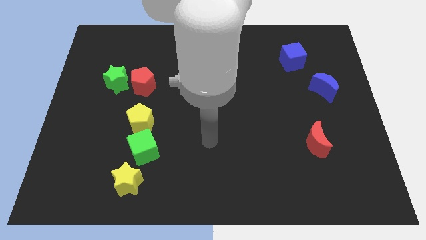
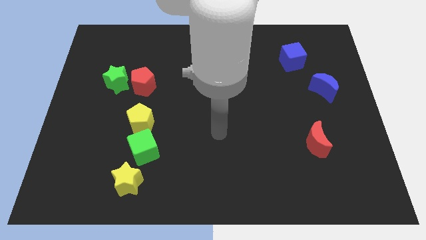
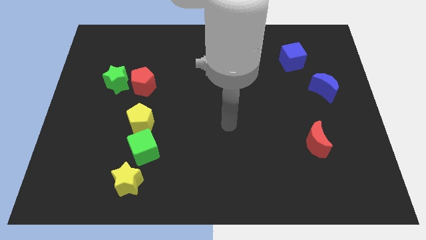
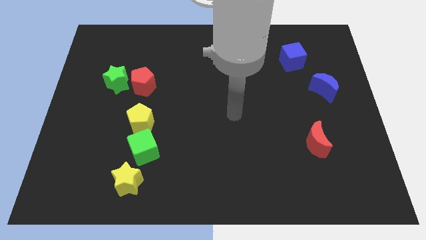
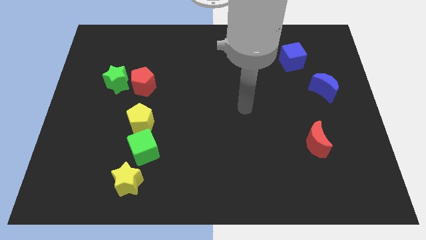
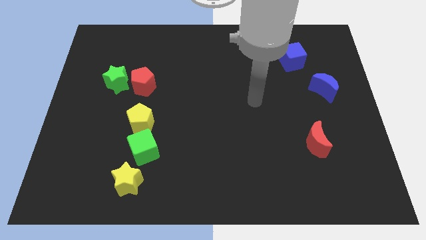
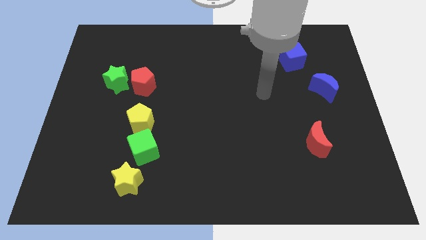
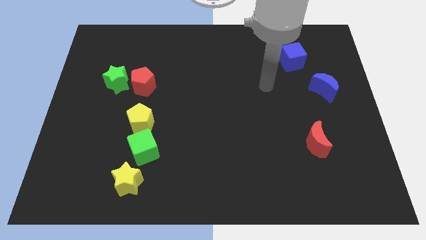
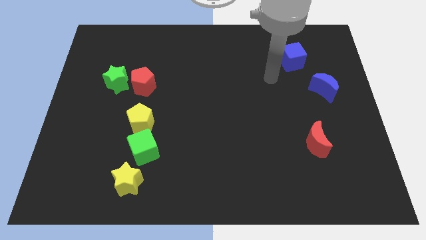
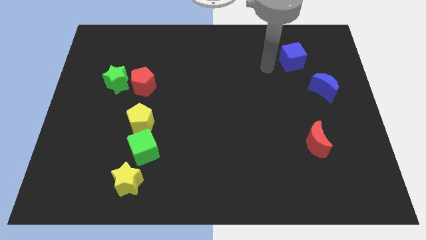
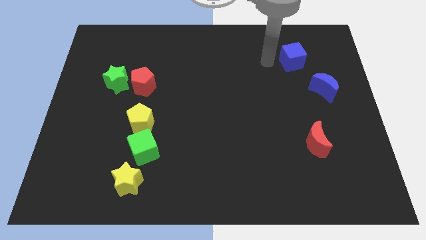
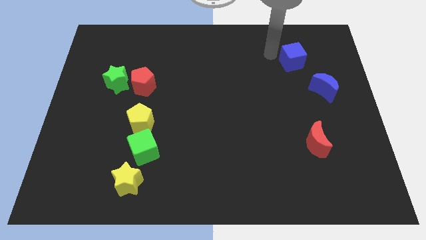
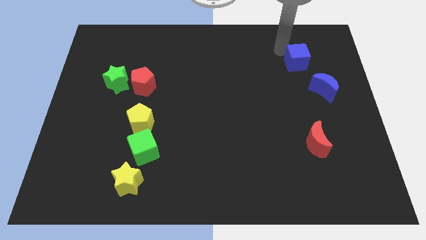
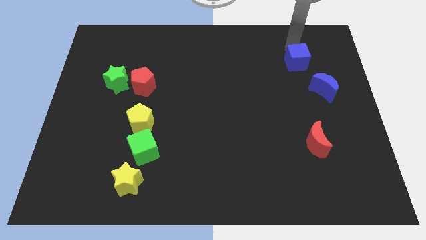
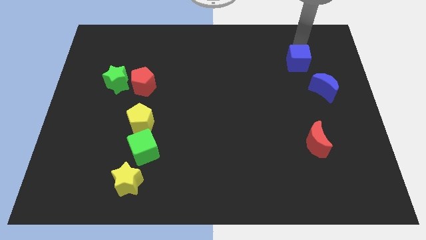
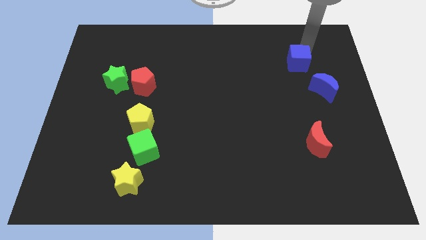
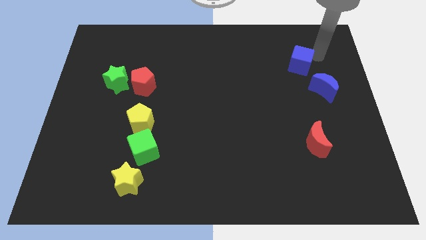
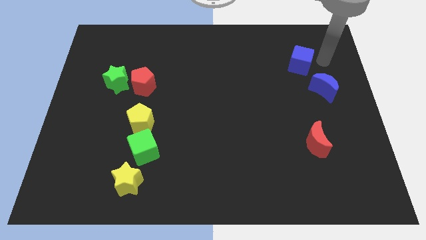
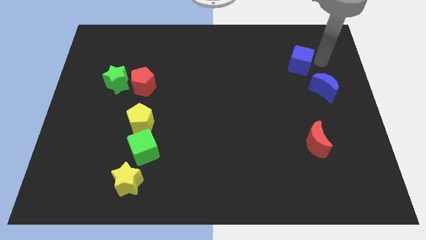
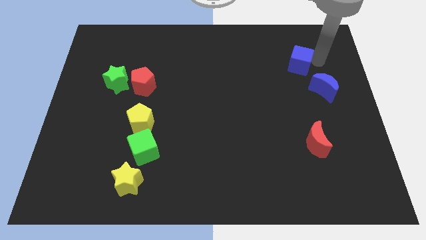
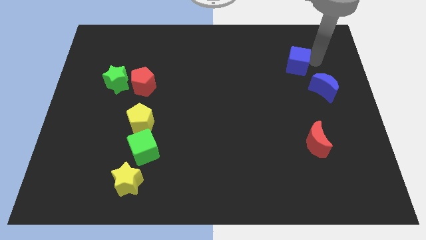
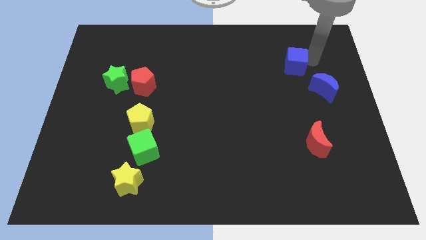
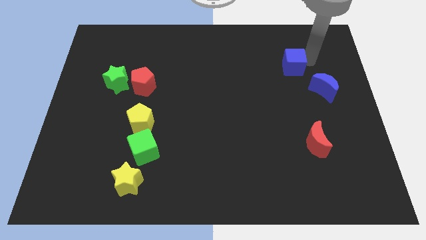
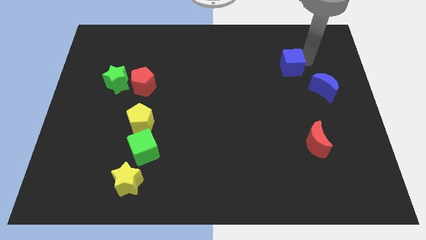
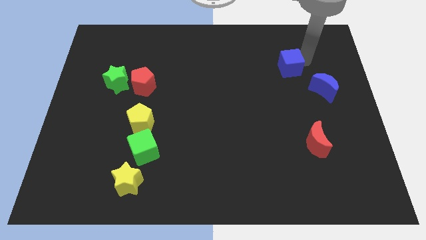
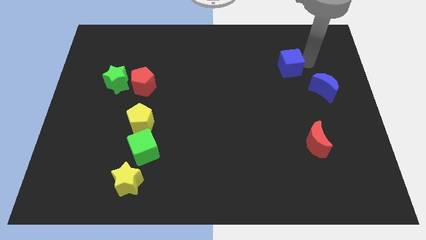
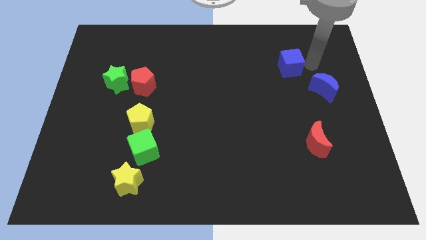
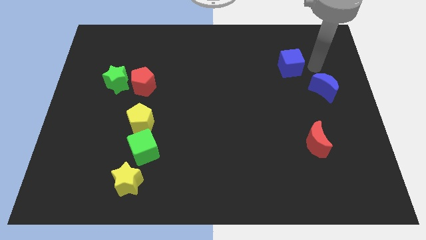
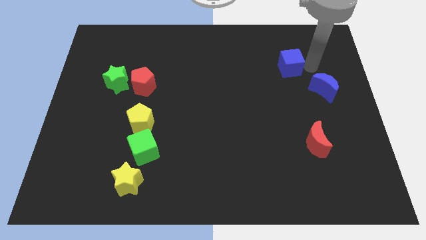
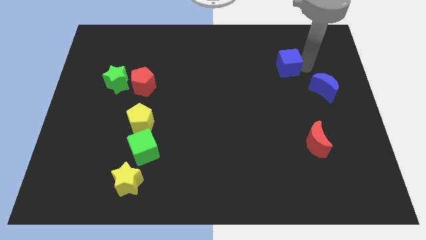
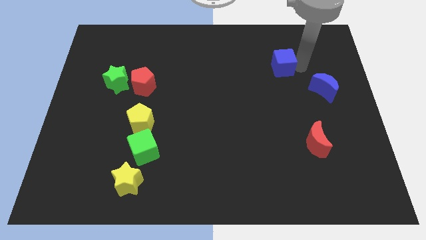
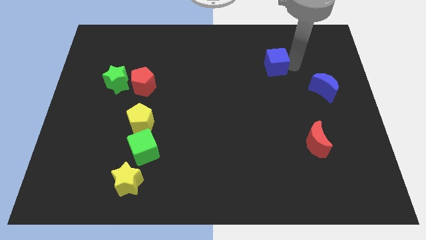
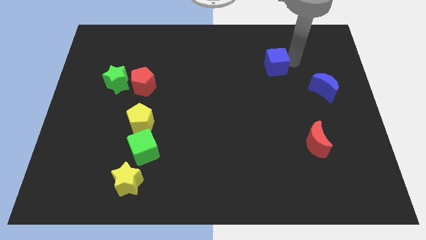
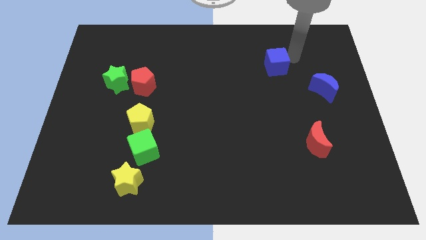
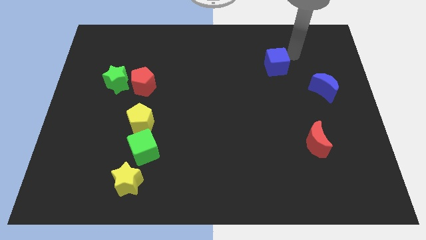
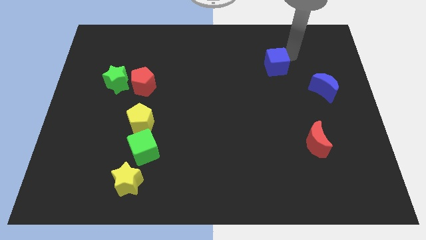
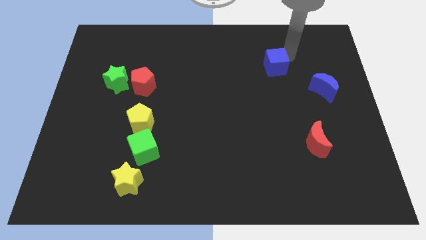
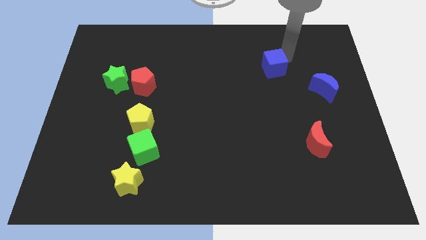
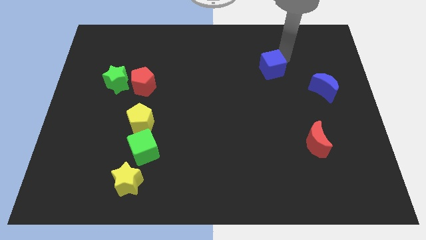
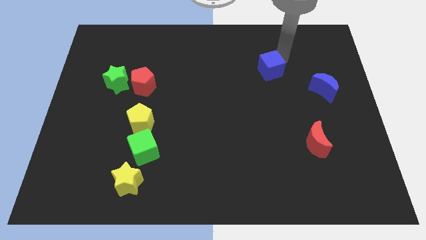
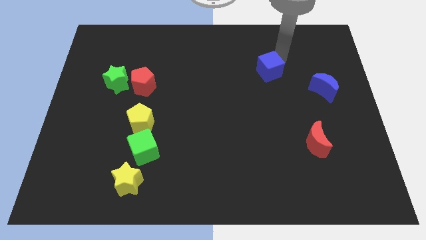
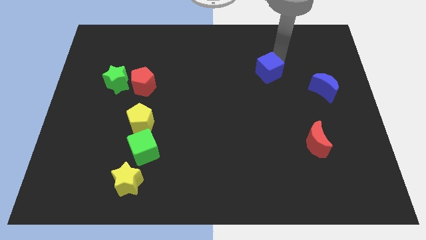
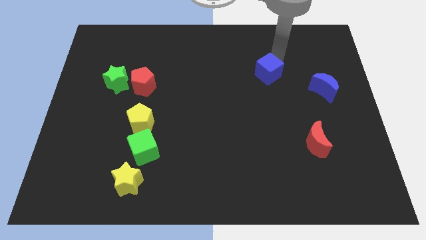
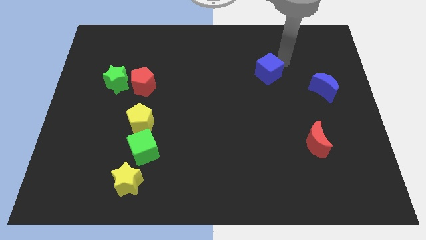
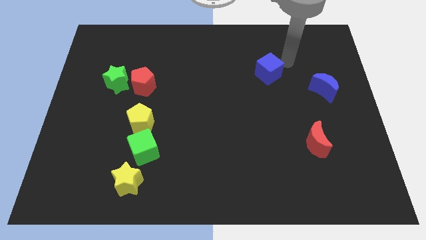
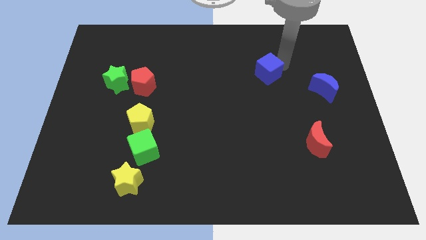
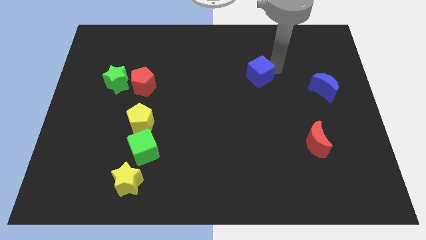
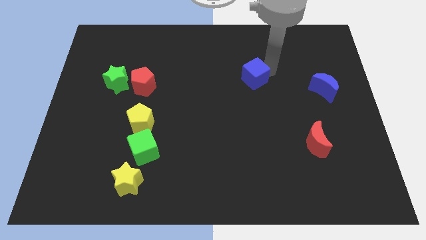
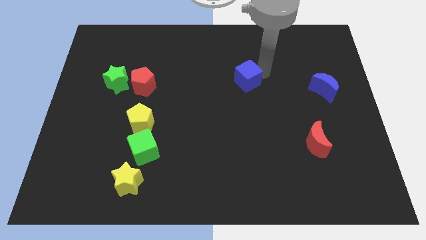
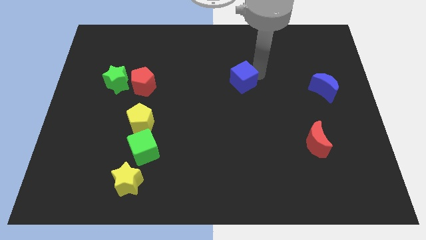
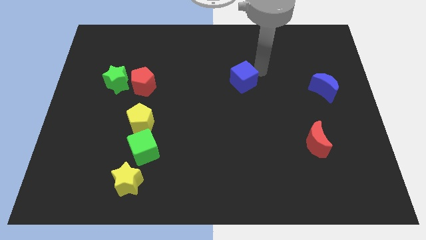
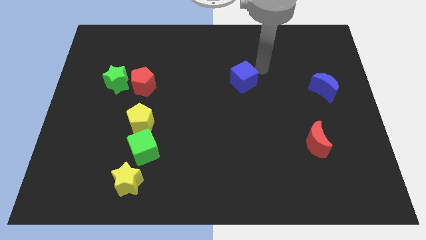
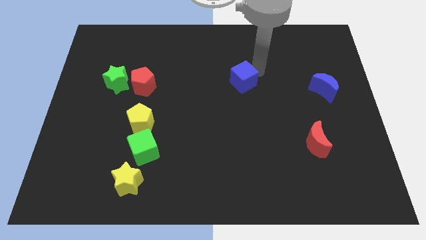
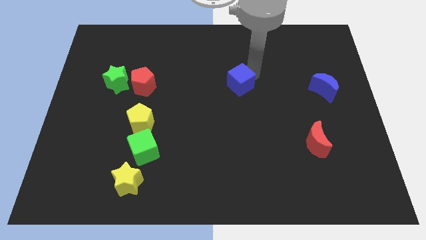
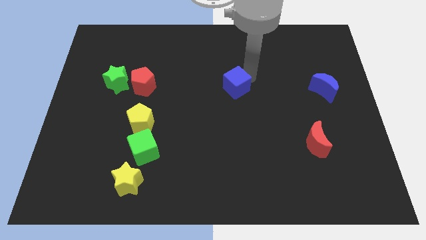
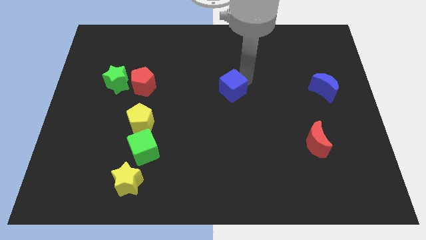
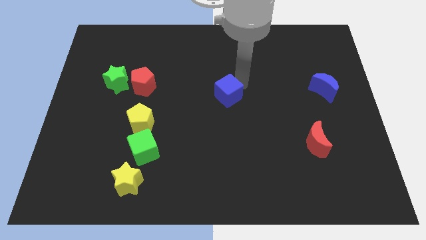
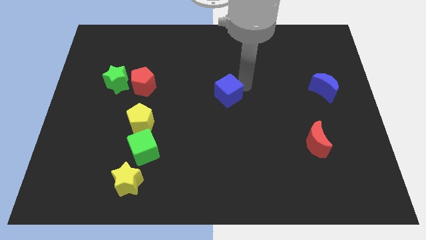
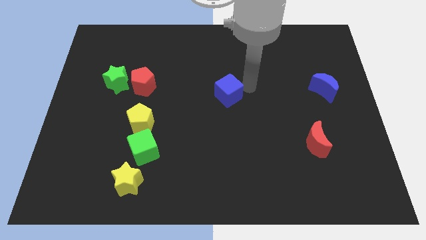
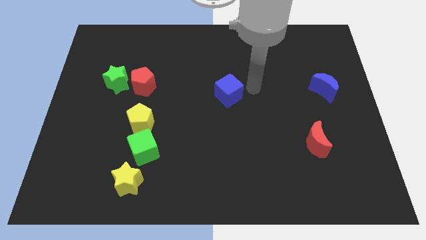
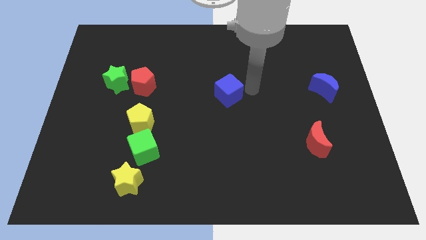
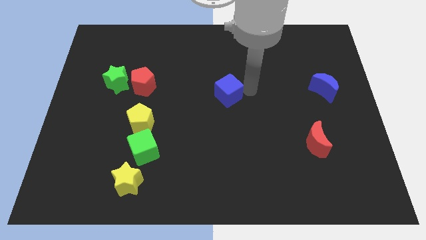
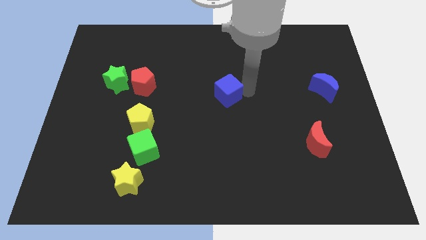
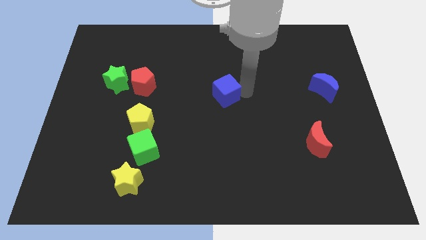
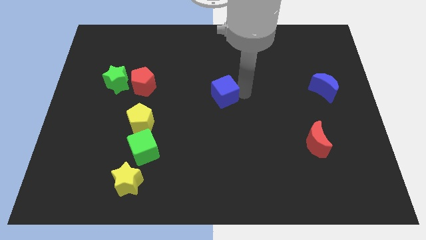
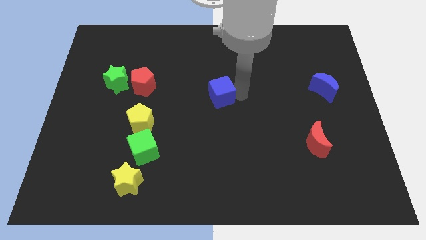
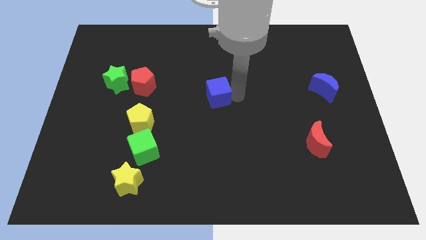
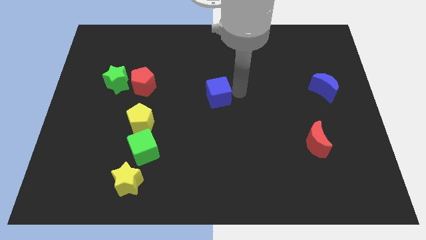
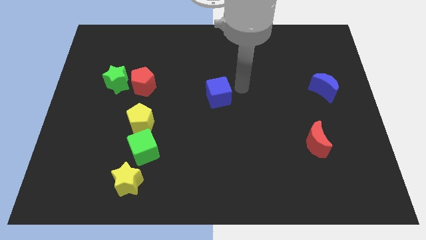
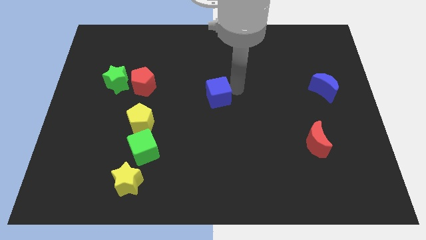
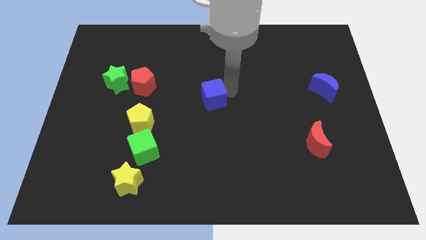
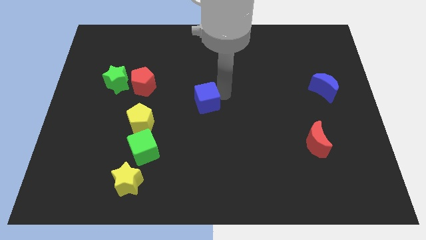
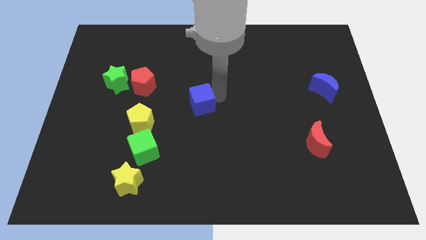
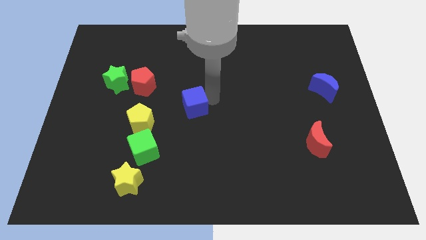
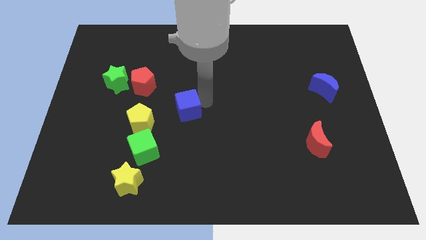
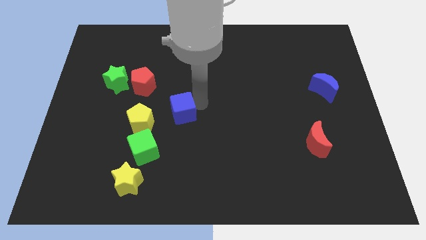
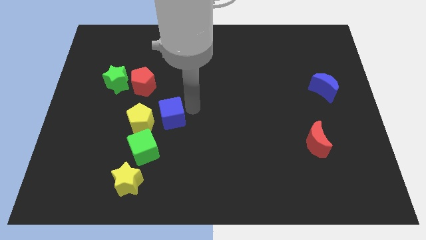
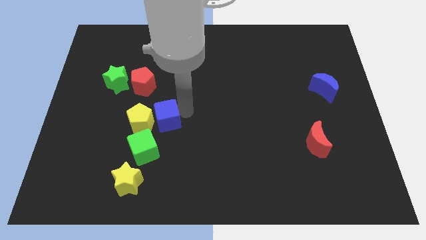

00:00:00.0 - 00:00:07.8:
put the blue cube towards the yellow pentagon
